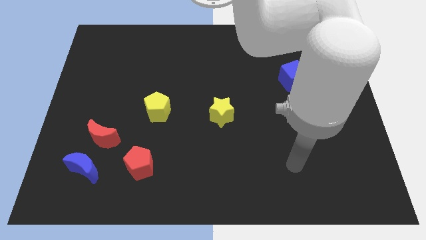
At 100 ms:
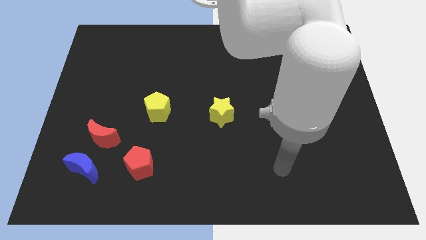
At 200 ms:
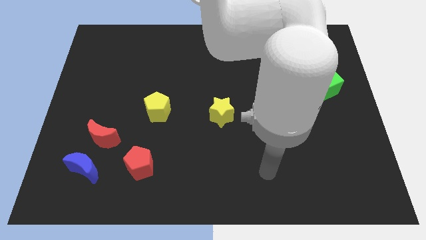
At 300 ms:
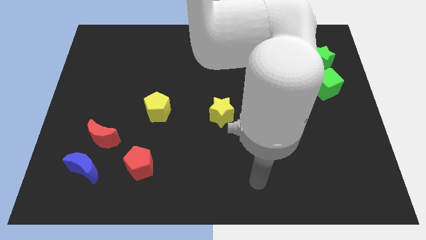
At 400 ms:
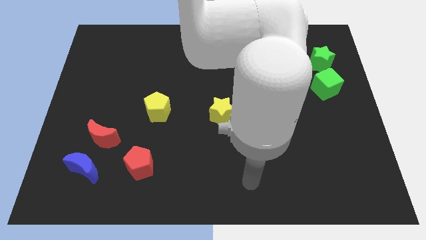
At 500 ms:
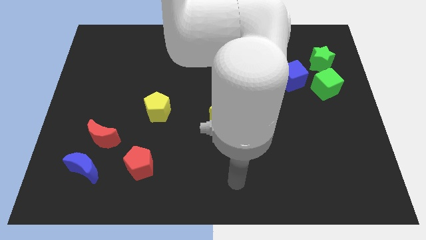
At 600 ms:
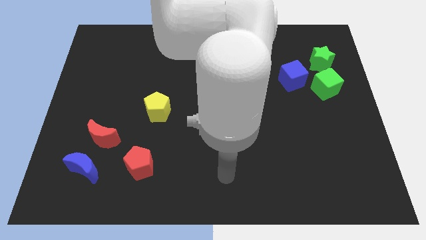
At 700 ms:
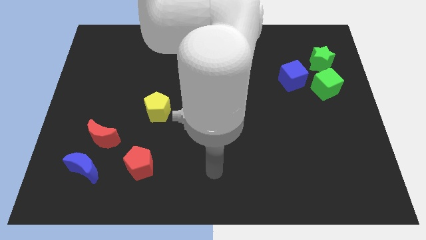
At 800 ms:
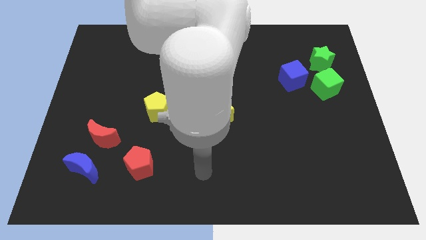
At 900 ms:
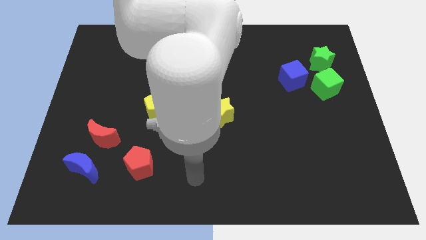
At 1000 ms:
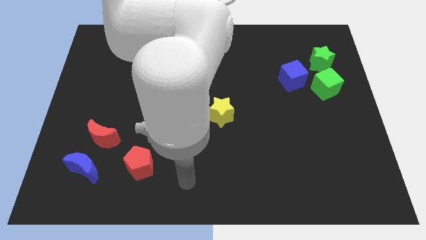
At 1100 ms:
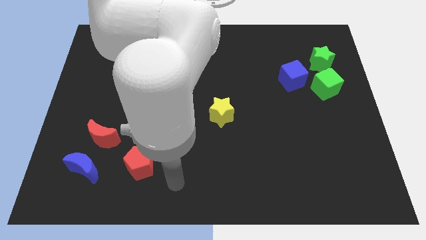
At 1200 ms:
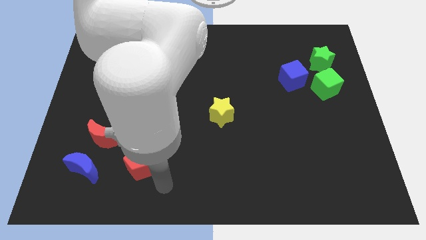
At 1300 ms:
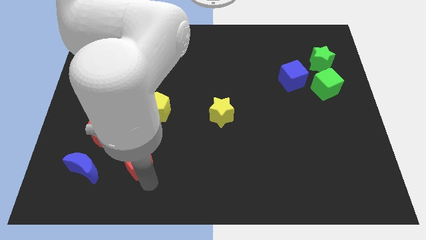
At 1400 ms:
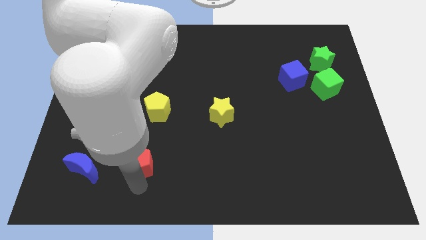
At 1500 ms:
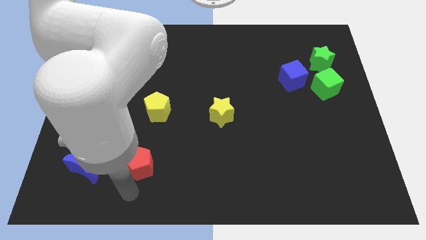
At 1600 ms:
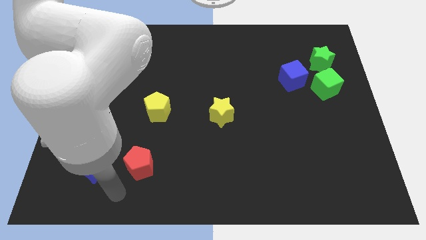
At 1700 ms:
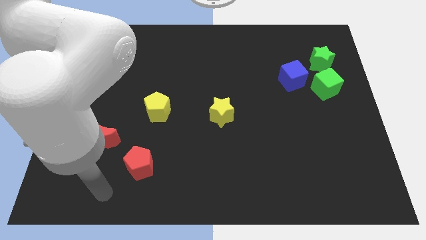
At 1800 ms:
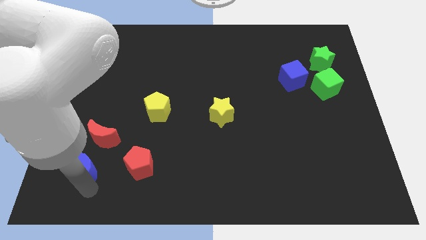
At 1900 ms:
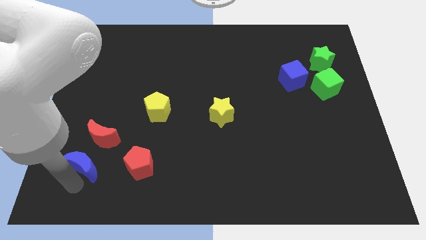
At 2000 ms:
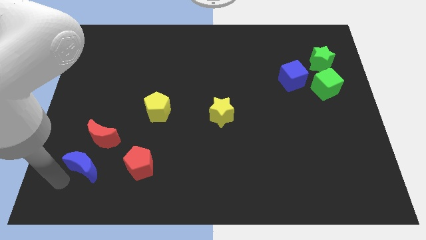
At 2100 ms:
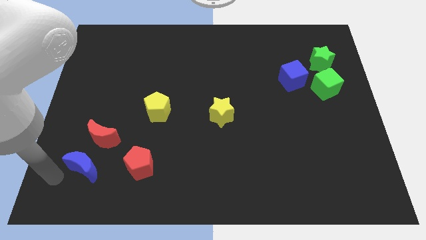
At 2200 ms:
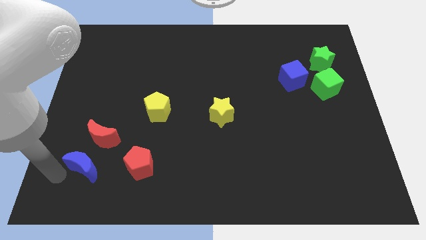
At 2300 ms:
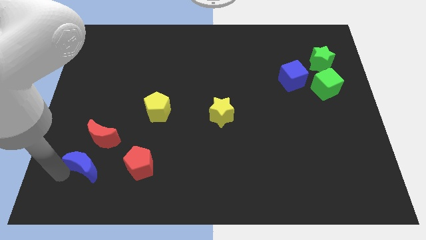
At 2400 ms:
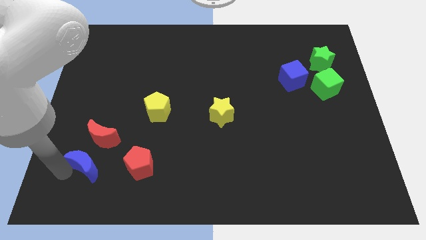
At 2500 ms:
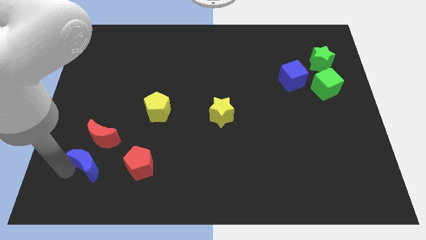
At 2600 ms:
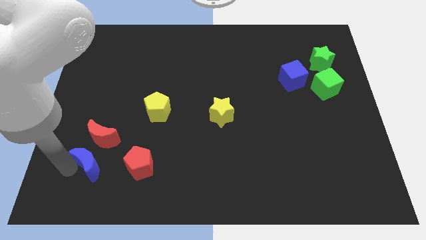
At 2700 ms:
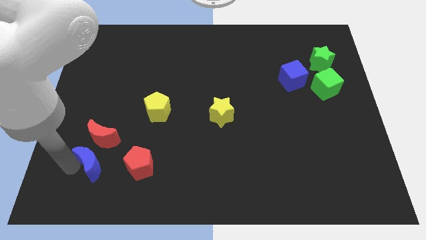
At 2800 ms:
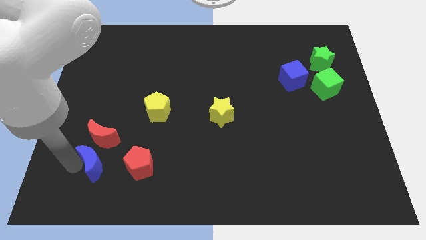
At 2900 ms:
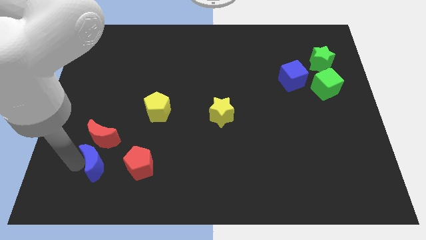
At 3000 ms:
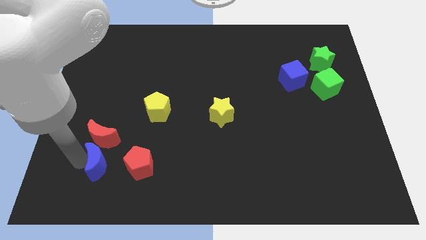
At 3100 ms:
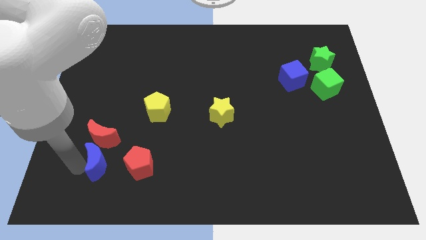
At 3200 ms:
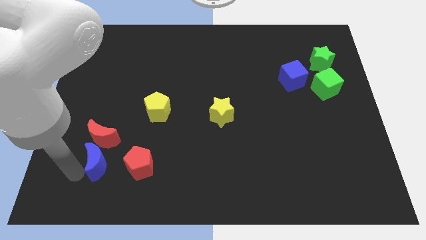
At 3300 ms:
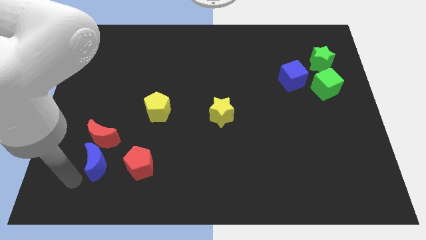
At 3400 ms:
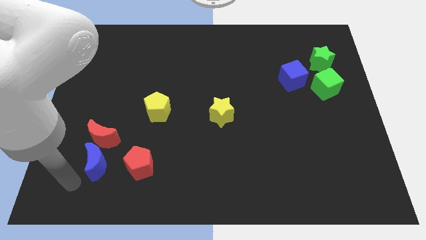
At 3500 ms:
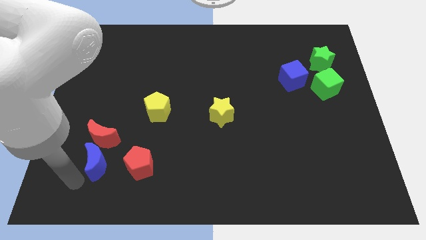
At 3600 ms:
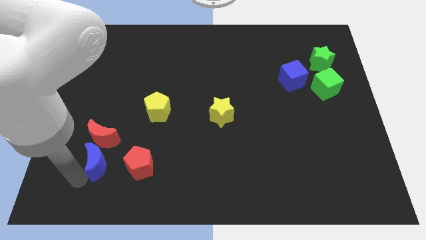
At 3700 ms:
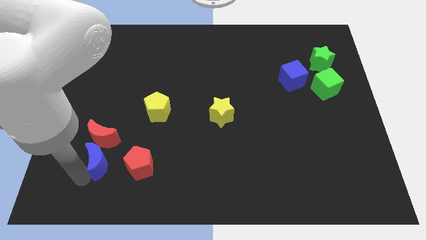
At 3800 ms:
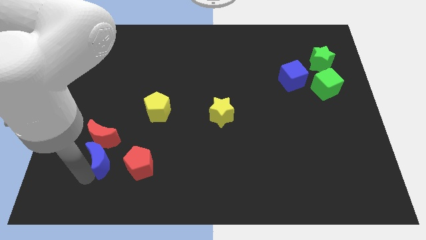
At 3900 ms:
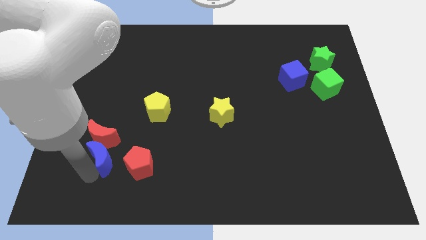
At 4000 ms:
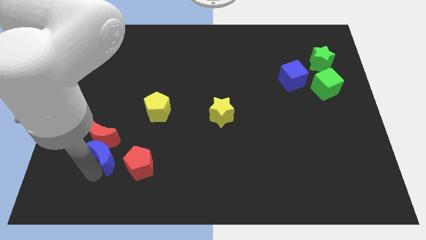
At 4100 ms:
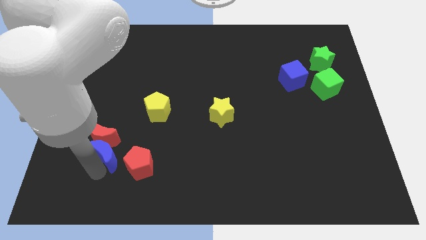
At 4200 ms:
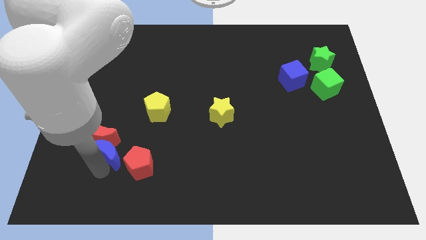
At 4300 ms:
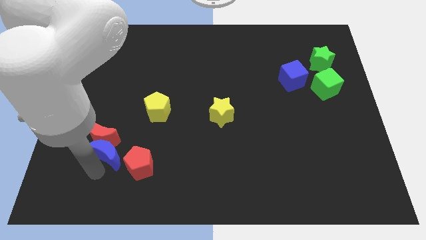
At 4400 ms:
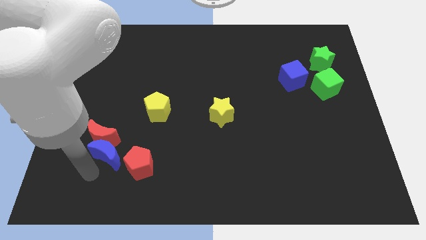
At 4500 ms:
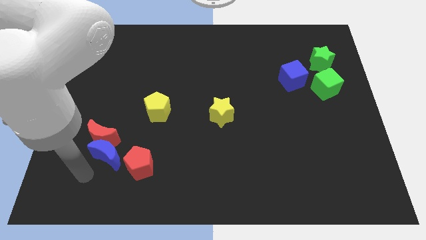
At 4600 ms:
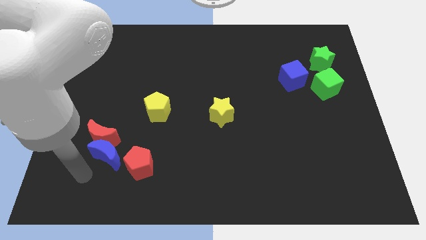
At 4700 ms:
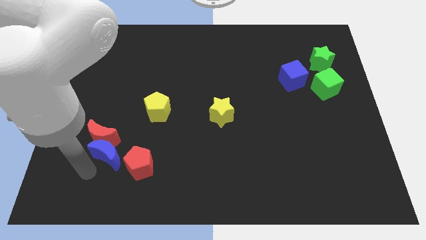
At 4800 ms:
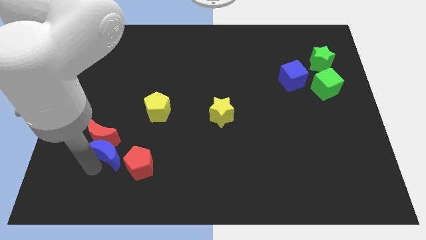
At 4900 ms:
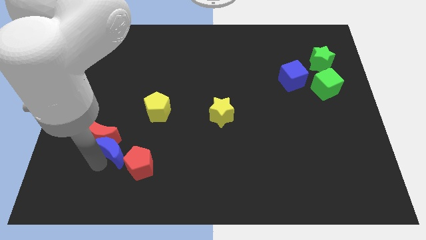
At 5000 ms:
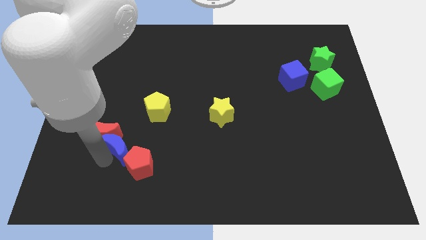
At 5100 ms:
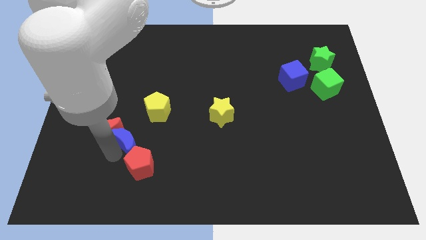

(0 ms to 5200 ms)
push the blue moon to the top of the red pentagon

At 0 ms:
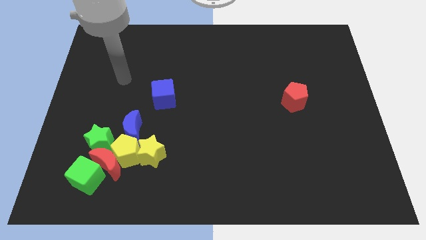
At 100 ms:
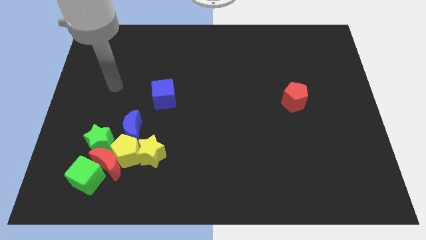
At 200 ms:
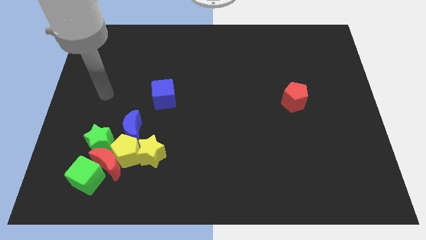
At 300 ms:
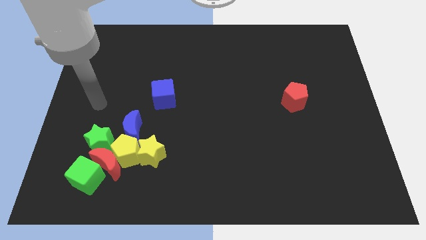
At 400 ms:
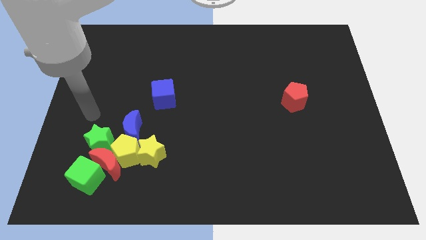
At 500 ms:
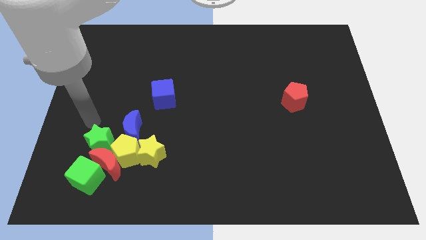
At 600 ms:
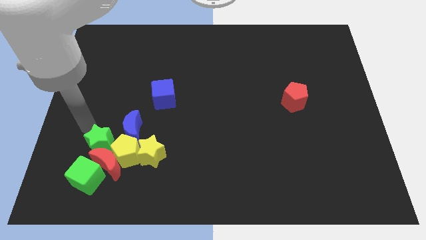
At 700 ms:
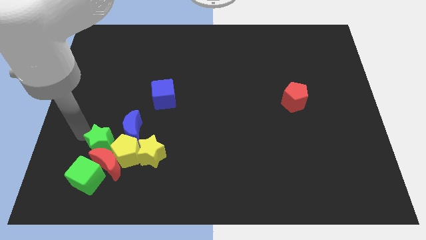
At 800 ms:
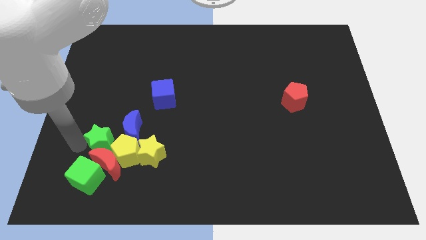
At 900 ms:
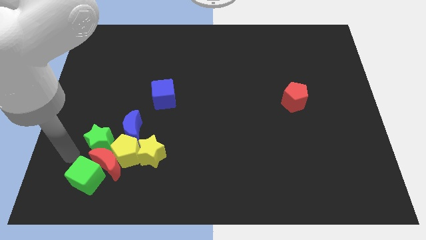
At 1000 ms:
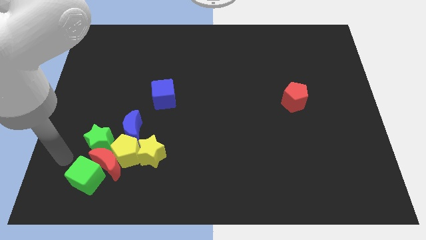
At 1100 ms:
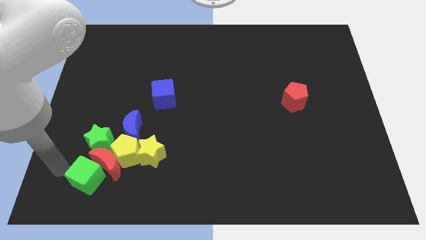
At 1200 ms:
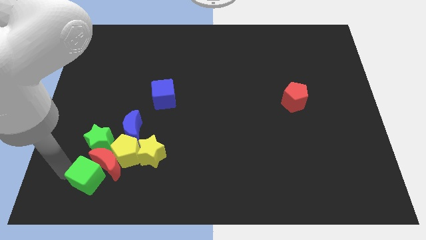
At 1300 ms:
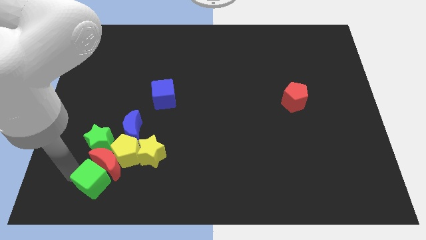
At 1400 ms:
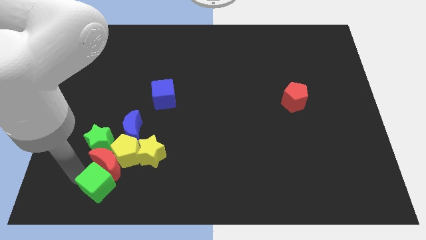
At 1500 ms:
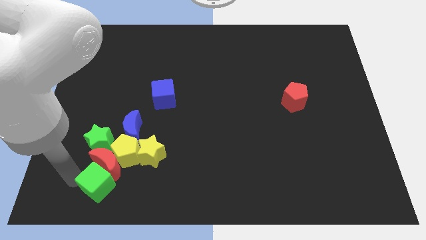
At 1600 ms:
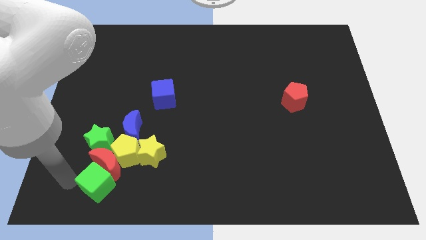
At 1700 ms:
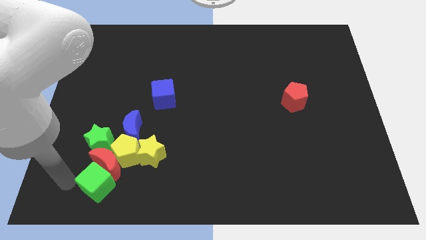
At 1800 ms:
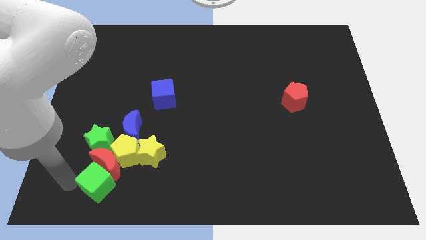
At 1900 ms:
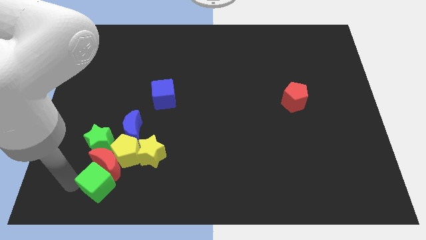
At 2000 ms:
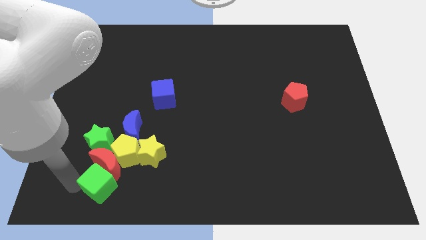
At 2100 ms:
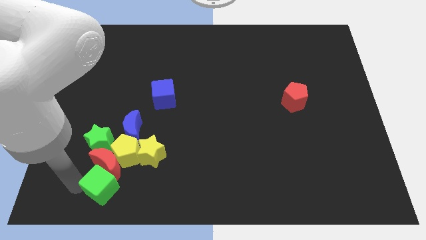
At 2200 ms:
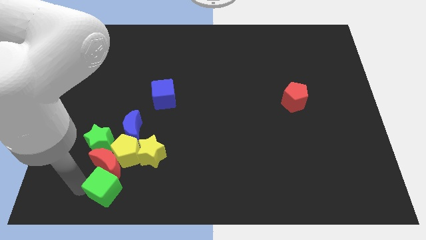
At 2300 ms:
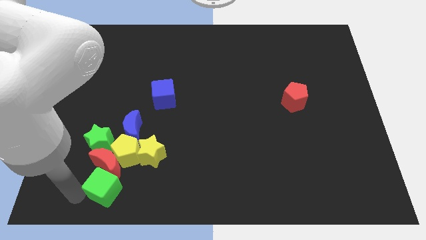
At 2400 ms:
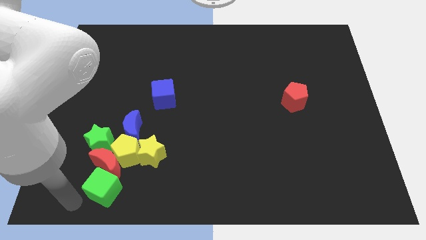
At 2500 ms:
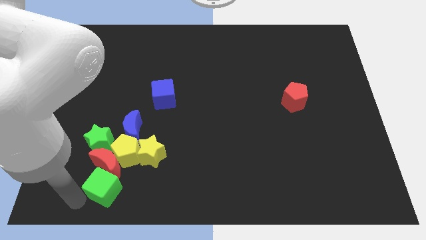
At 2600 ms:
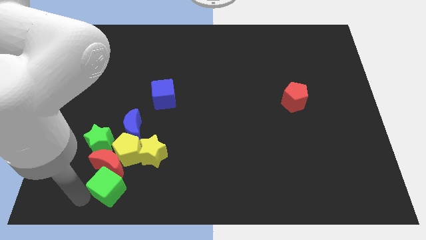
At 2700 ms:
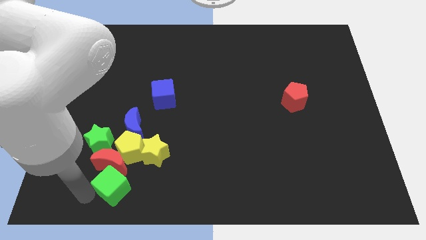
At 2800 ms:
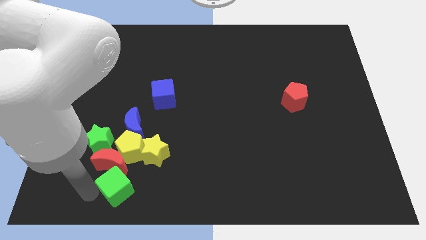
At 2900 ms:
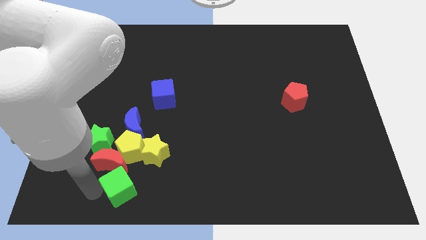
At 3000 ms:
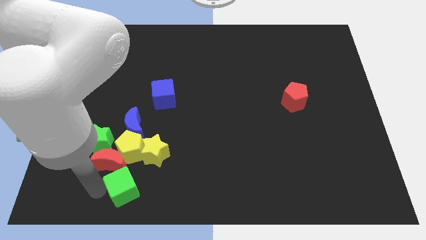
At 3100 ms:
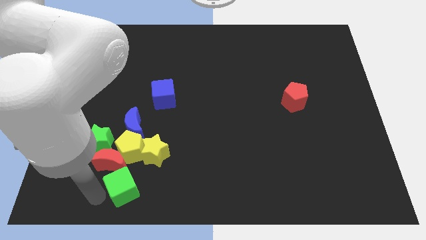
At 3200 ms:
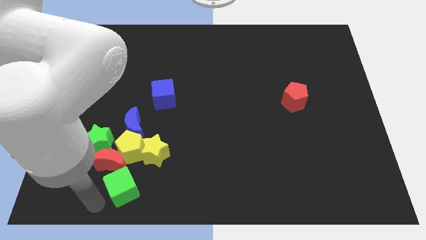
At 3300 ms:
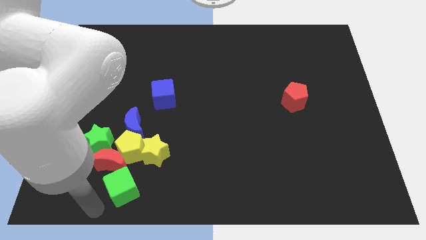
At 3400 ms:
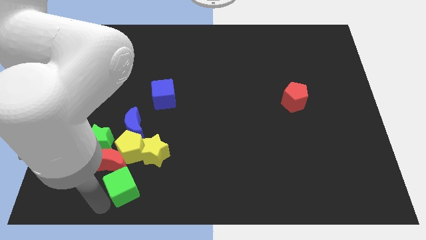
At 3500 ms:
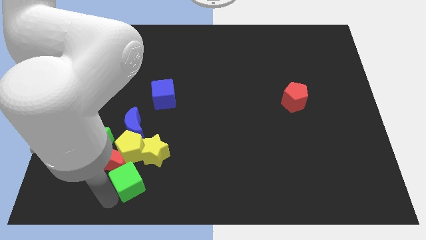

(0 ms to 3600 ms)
push the green cube to the right of the red moon
